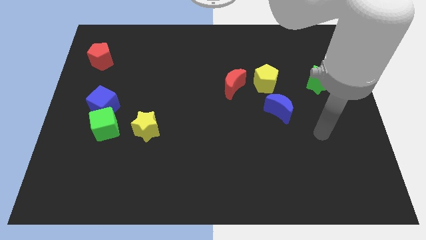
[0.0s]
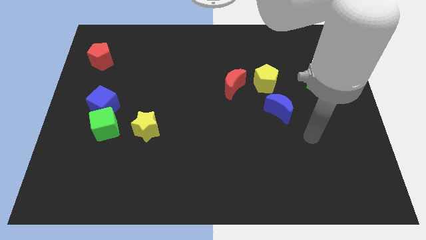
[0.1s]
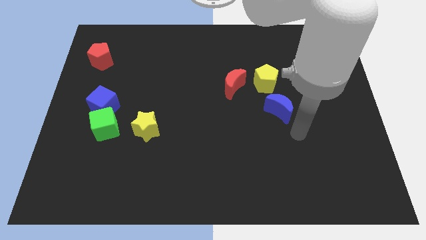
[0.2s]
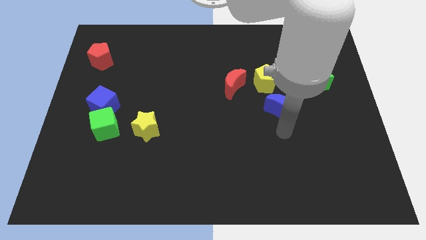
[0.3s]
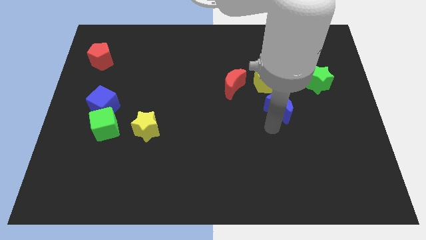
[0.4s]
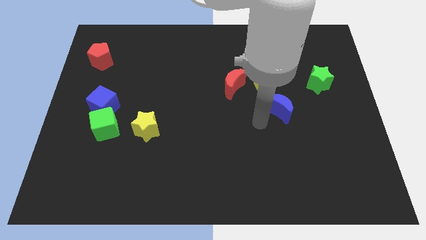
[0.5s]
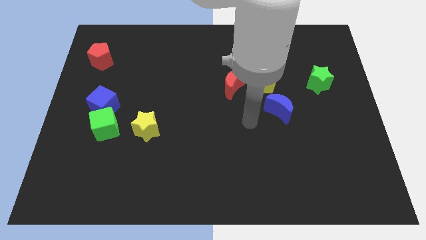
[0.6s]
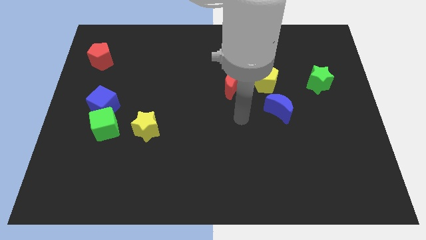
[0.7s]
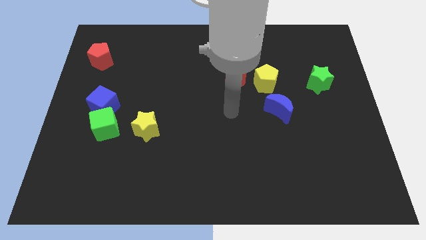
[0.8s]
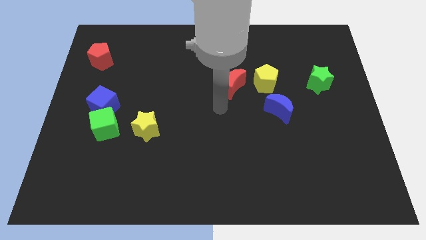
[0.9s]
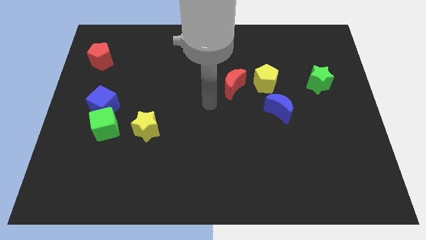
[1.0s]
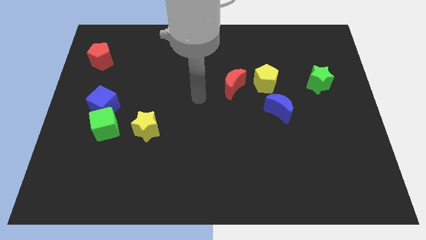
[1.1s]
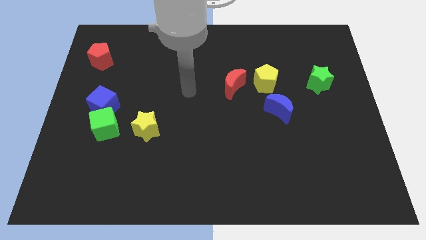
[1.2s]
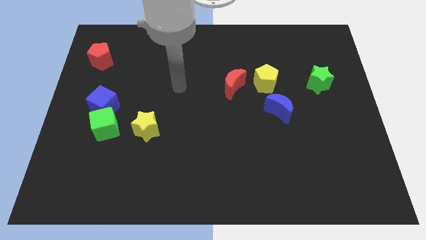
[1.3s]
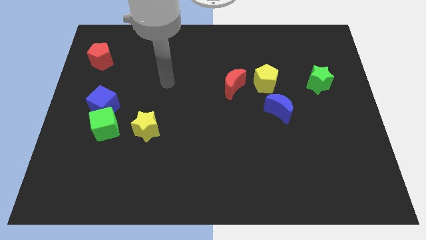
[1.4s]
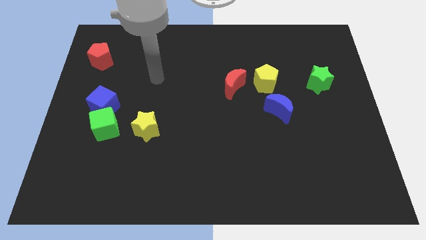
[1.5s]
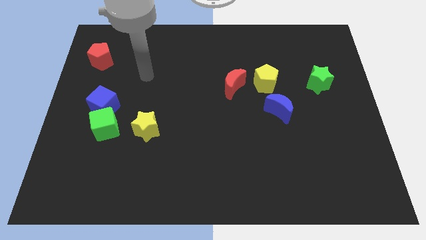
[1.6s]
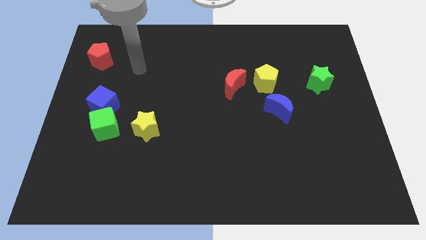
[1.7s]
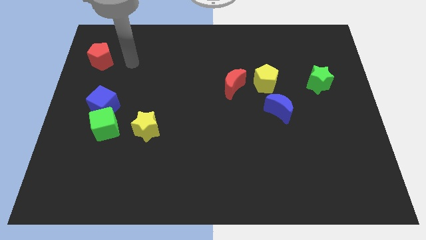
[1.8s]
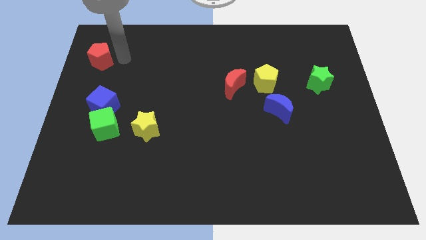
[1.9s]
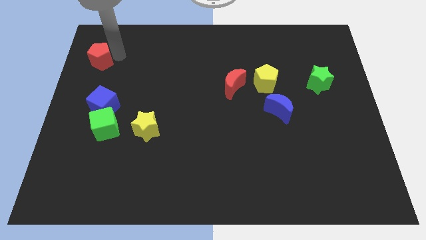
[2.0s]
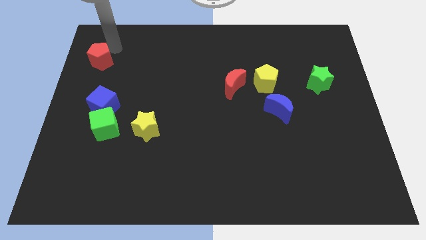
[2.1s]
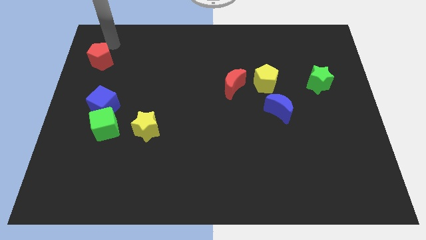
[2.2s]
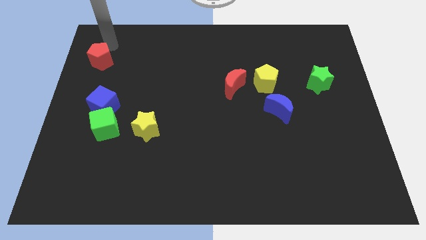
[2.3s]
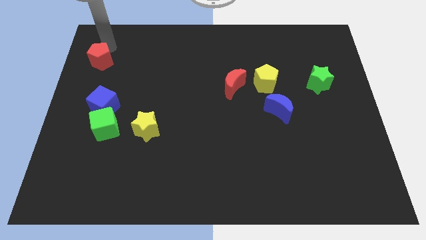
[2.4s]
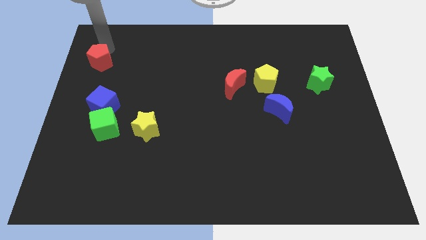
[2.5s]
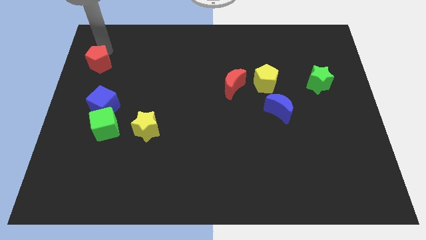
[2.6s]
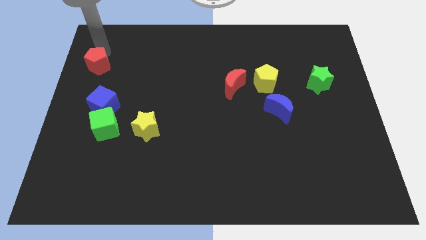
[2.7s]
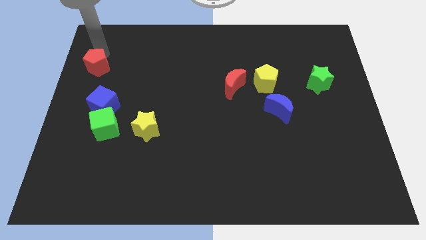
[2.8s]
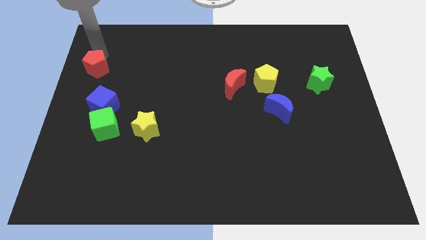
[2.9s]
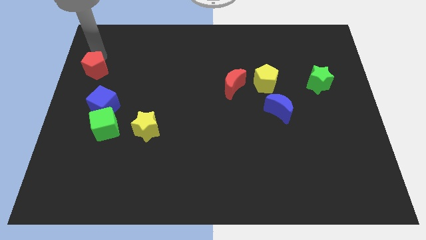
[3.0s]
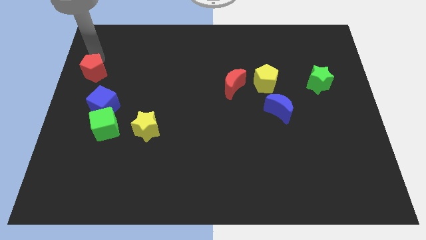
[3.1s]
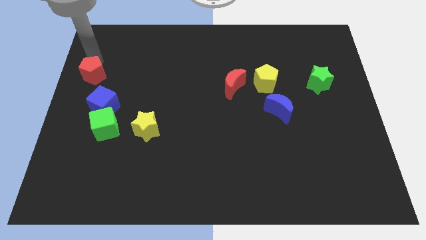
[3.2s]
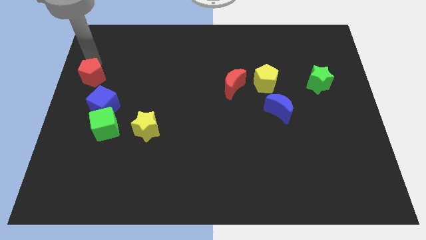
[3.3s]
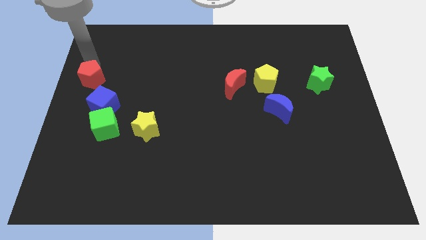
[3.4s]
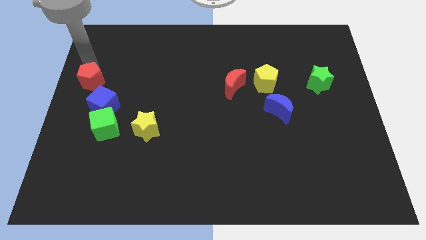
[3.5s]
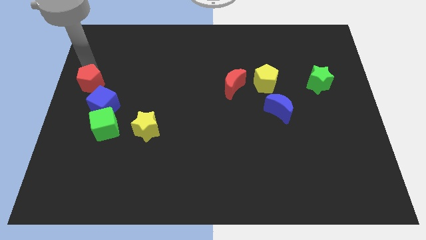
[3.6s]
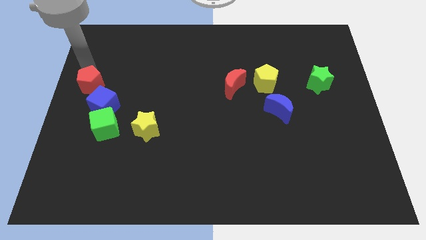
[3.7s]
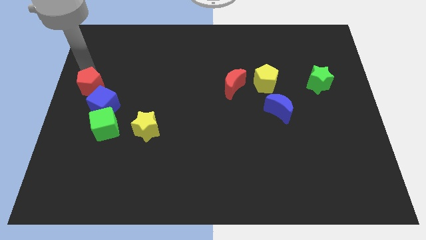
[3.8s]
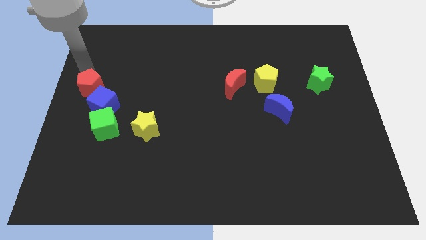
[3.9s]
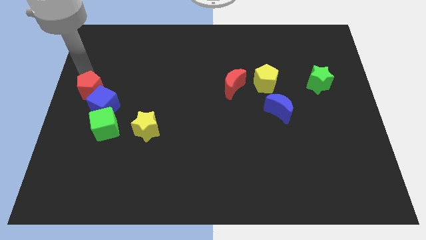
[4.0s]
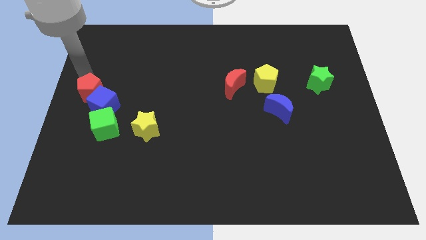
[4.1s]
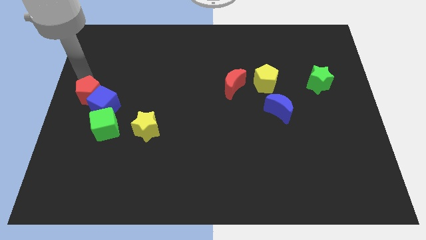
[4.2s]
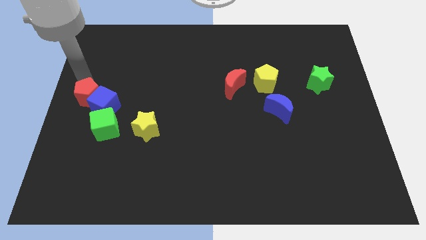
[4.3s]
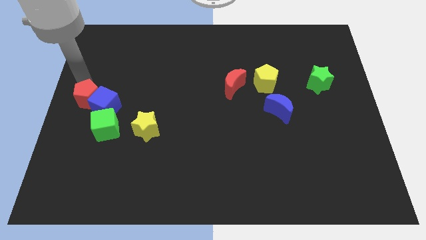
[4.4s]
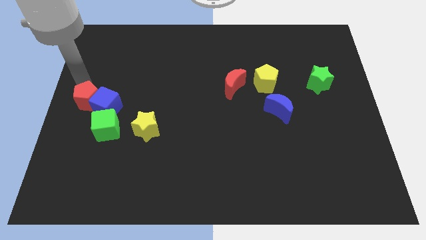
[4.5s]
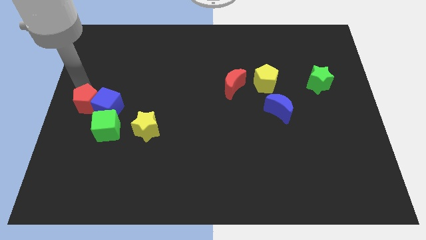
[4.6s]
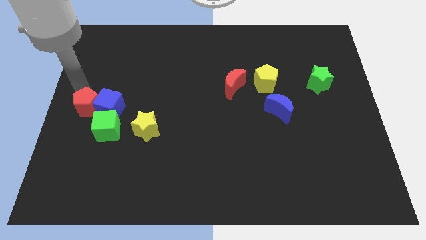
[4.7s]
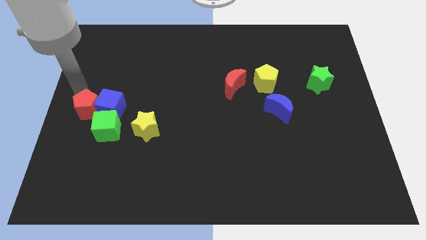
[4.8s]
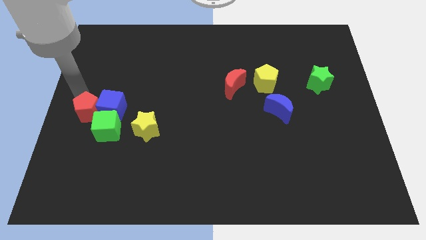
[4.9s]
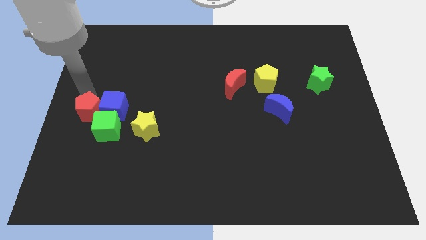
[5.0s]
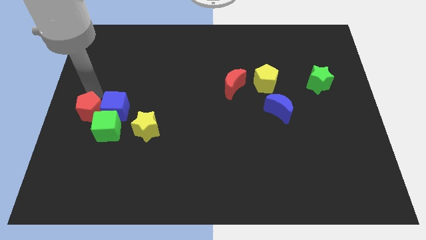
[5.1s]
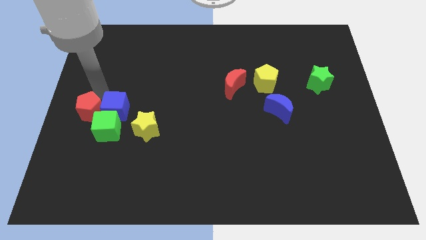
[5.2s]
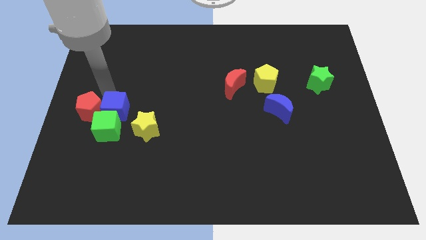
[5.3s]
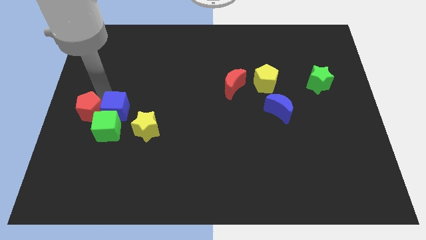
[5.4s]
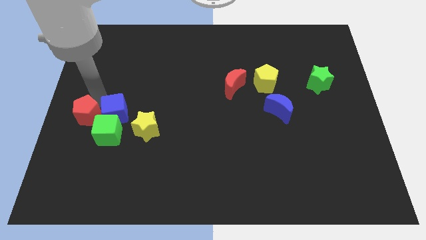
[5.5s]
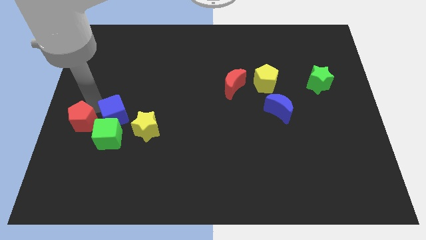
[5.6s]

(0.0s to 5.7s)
push the red pentagon downwards

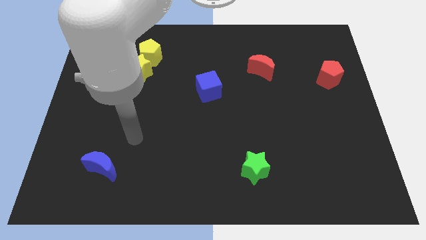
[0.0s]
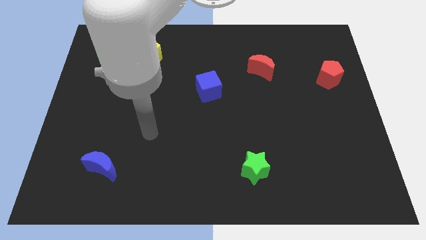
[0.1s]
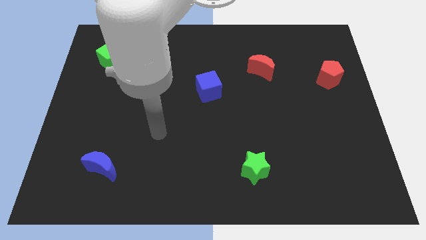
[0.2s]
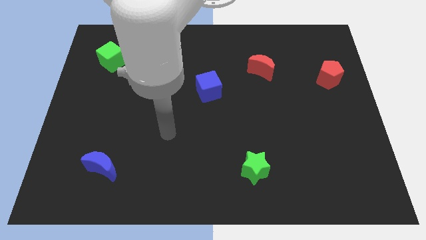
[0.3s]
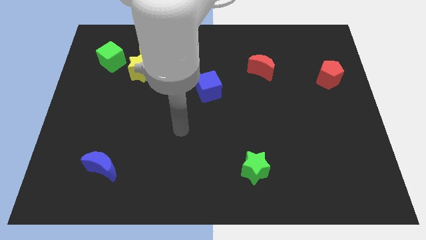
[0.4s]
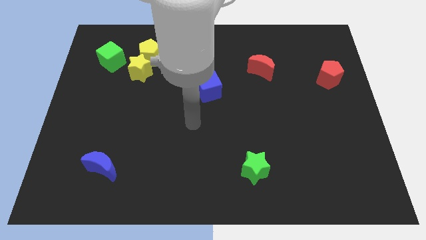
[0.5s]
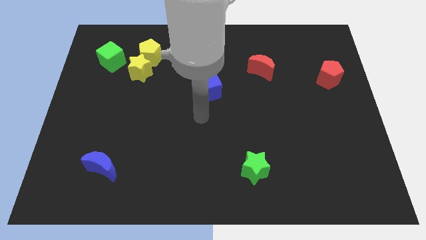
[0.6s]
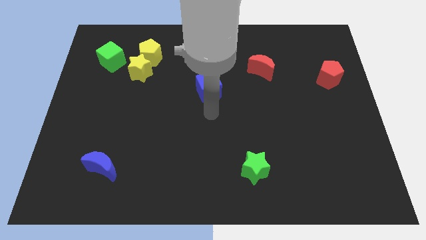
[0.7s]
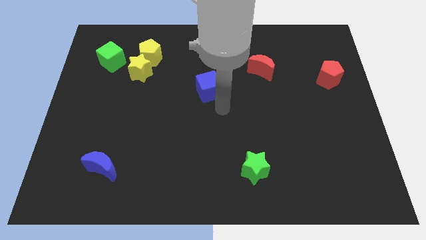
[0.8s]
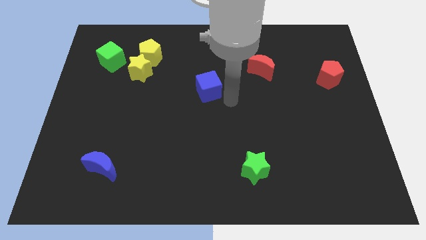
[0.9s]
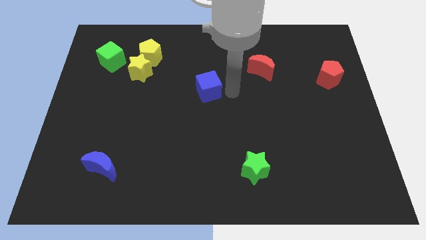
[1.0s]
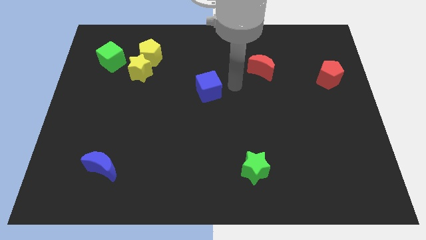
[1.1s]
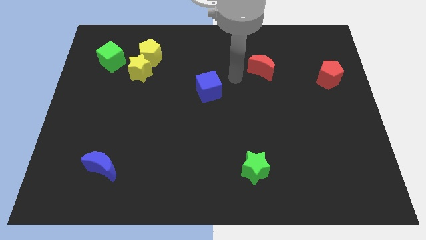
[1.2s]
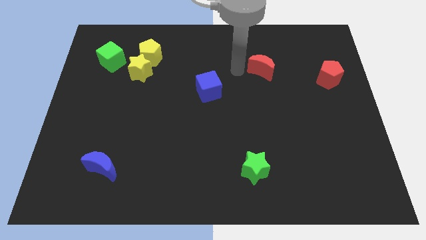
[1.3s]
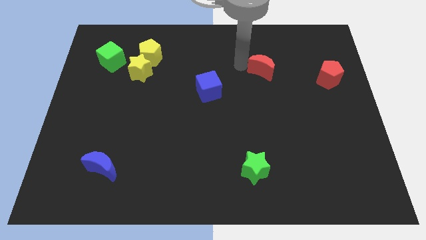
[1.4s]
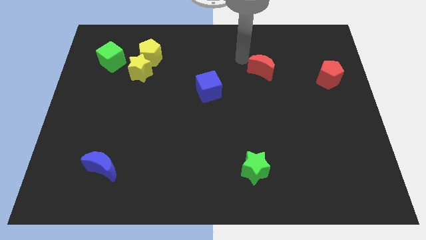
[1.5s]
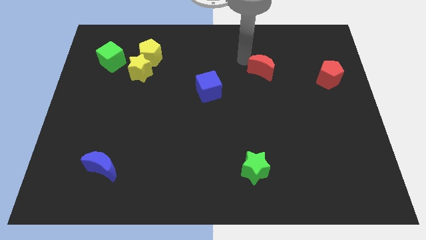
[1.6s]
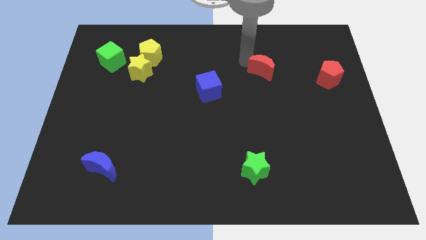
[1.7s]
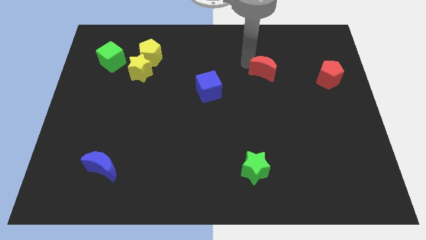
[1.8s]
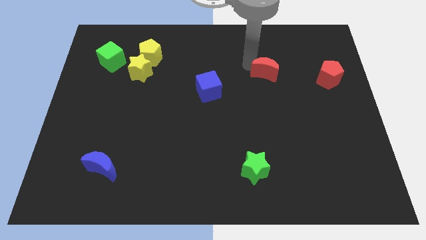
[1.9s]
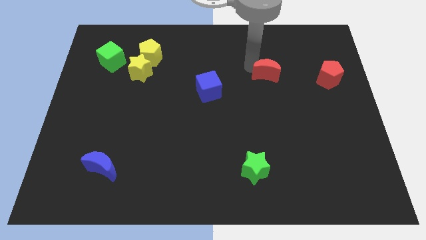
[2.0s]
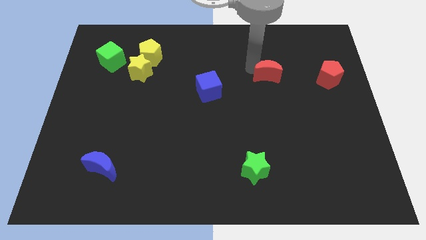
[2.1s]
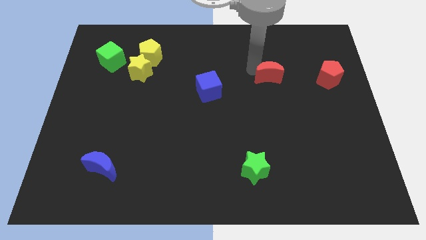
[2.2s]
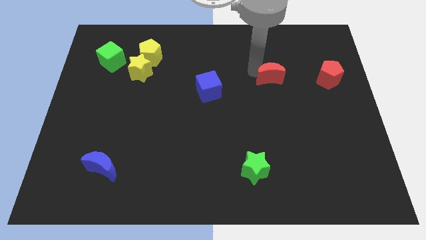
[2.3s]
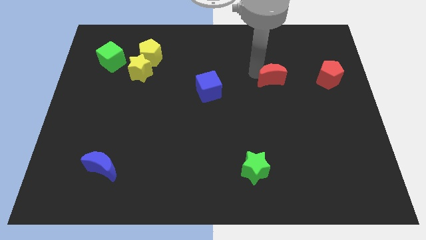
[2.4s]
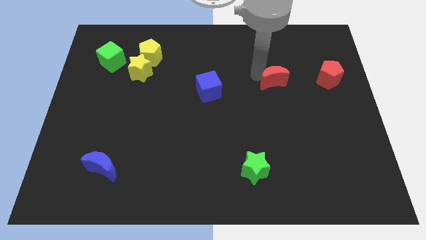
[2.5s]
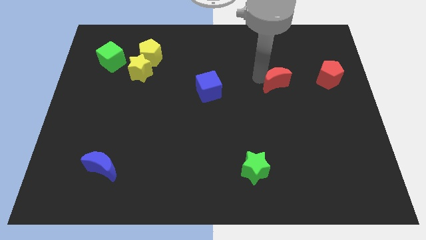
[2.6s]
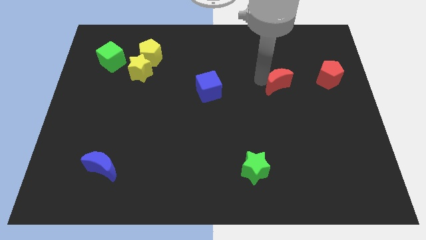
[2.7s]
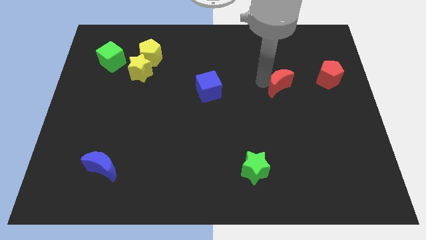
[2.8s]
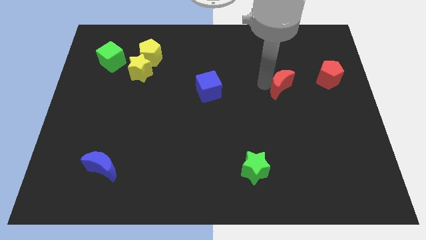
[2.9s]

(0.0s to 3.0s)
push the red moon down and then to the right a bit
